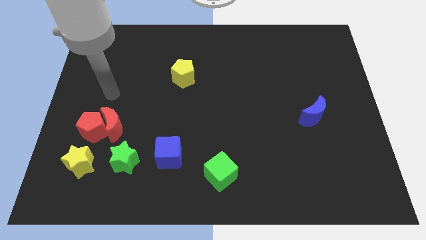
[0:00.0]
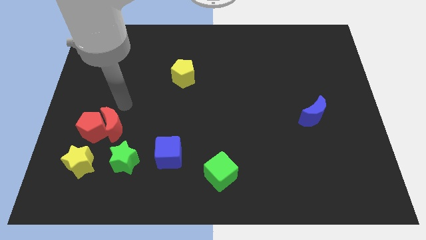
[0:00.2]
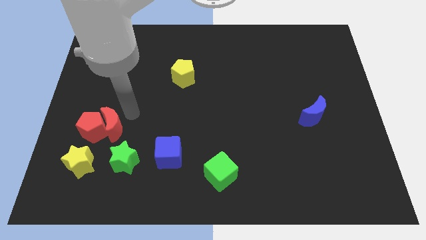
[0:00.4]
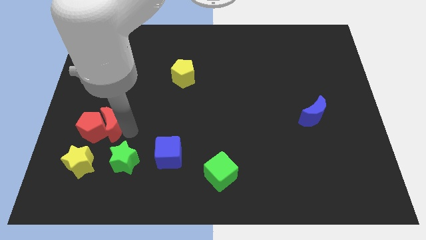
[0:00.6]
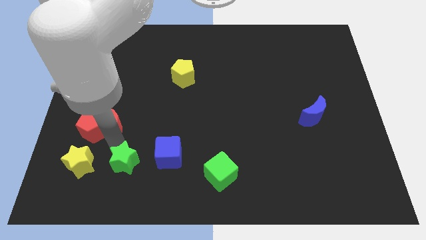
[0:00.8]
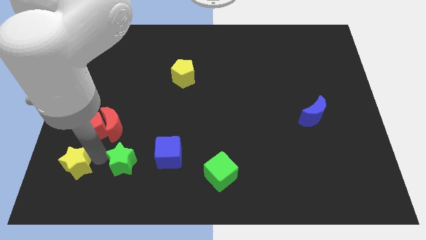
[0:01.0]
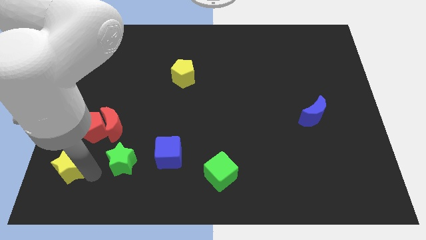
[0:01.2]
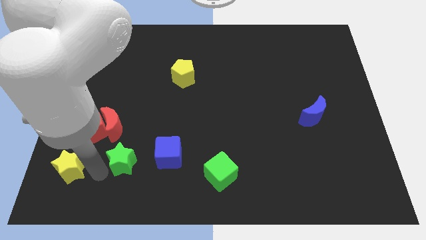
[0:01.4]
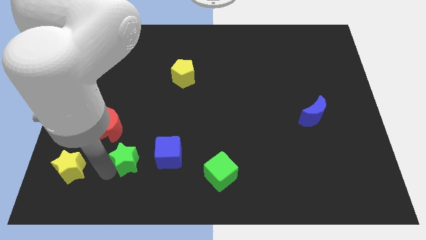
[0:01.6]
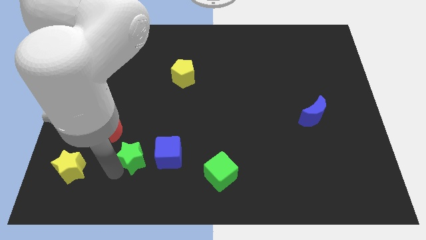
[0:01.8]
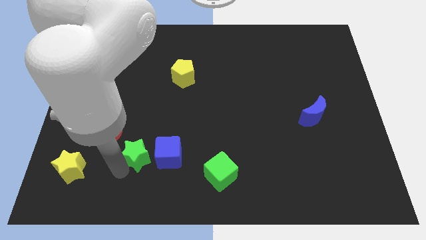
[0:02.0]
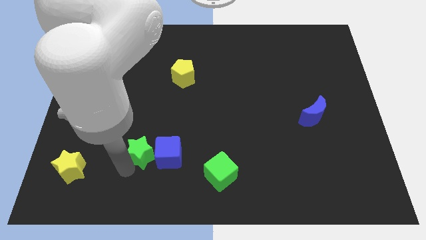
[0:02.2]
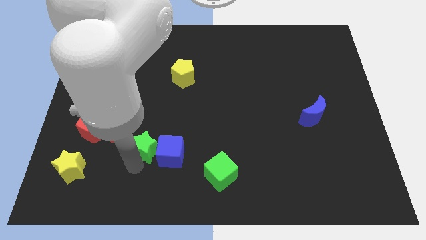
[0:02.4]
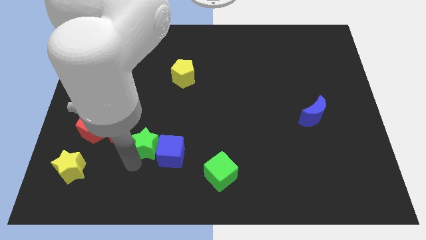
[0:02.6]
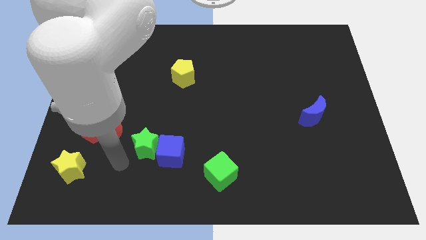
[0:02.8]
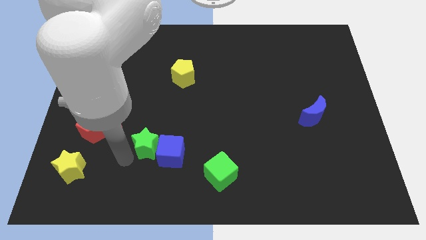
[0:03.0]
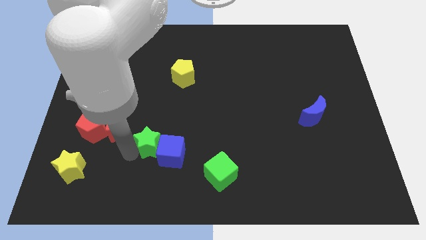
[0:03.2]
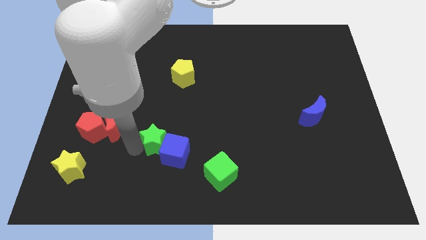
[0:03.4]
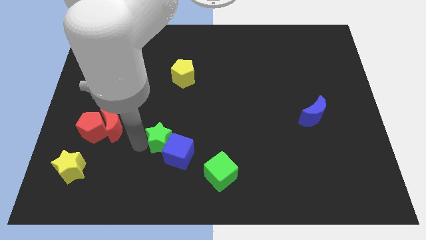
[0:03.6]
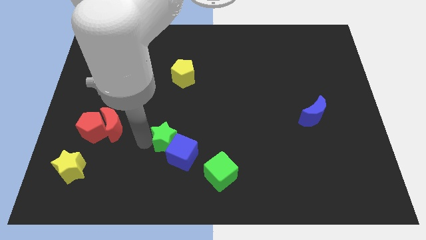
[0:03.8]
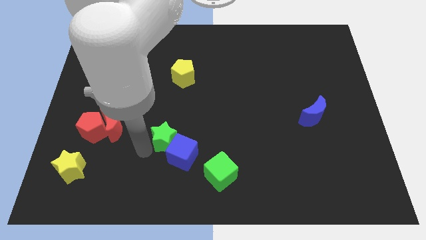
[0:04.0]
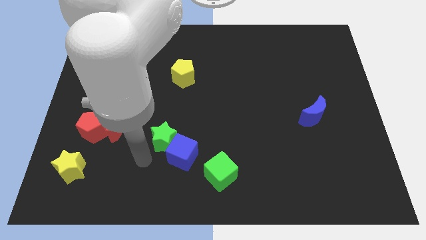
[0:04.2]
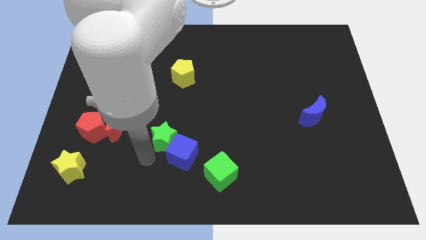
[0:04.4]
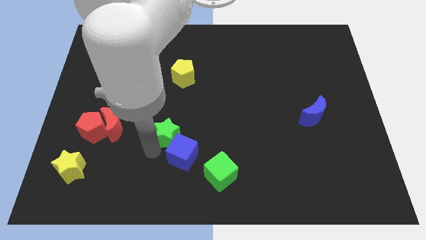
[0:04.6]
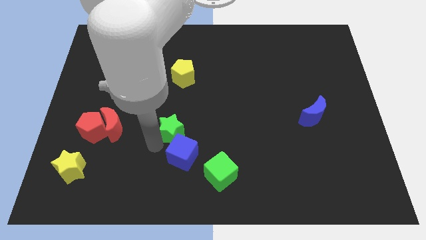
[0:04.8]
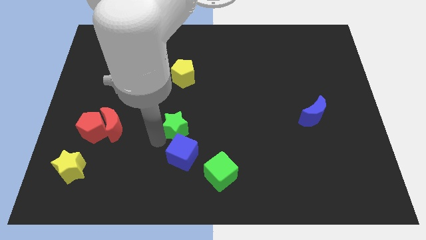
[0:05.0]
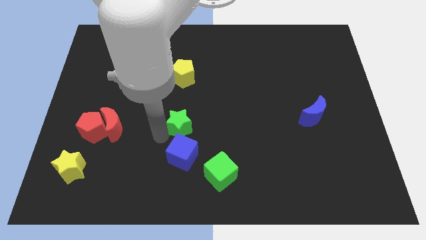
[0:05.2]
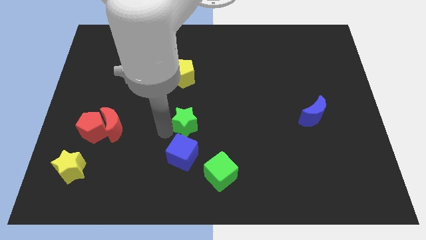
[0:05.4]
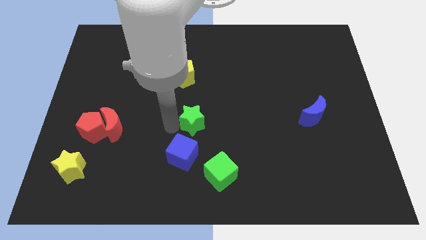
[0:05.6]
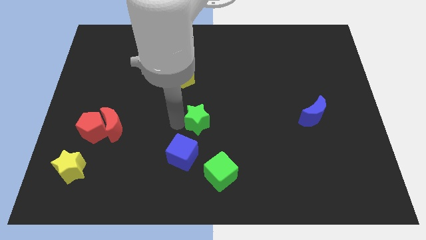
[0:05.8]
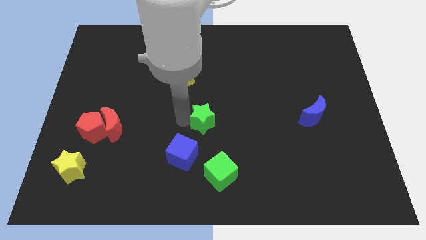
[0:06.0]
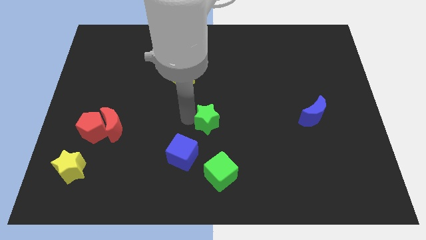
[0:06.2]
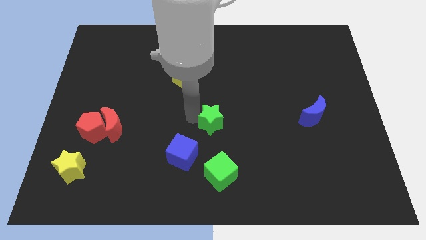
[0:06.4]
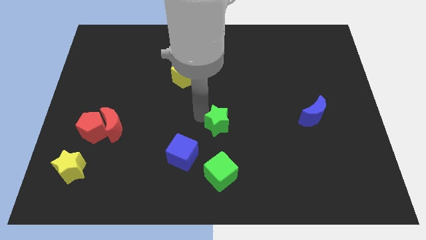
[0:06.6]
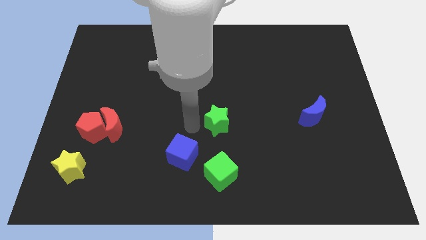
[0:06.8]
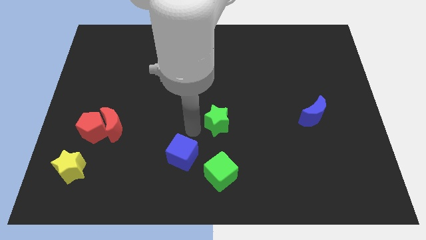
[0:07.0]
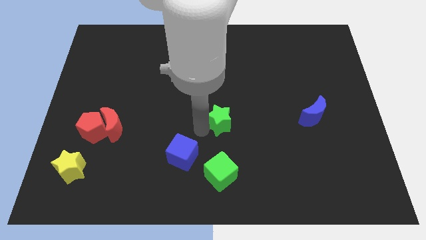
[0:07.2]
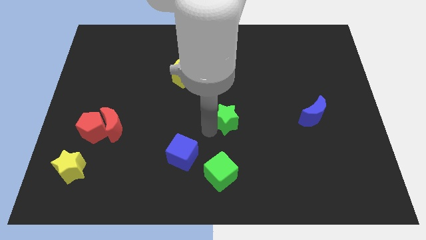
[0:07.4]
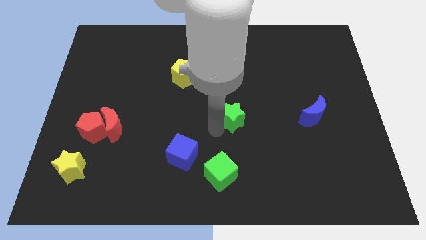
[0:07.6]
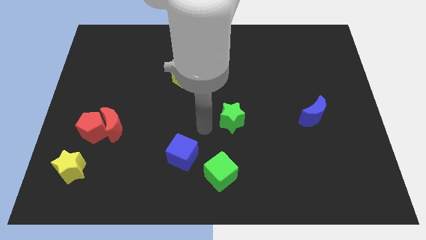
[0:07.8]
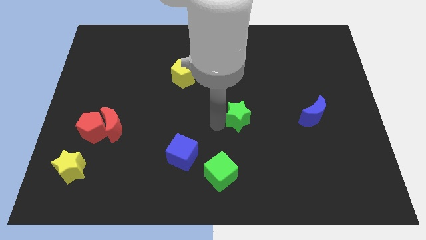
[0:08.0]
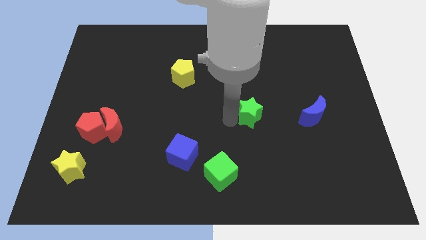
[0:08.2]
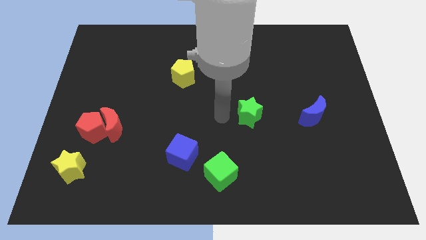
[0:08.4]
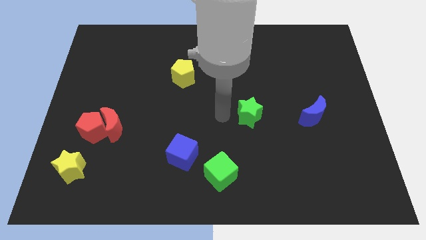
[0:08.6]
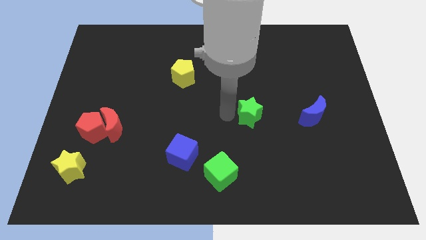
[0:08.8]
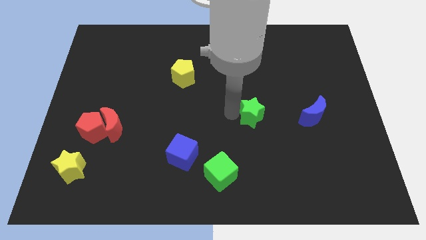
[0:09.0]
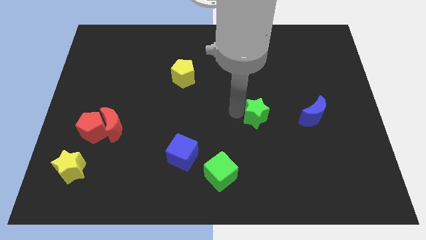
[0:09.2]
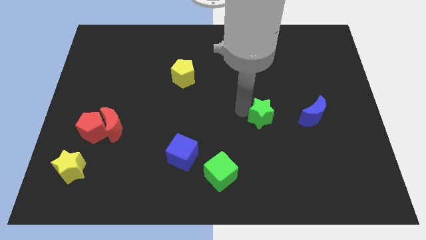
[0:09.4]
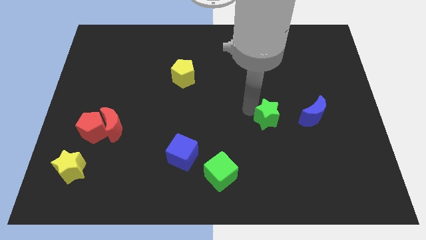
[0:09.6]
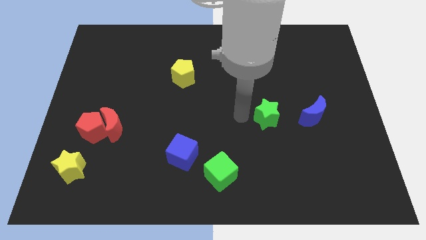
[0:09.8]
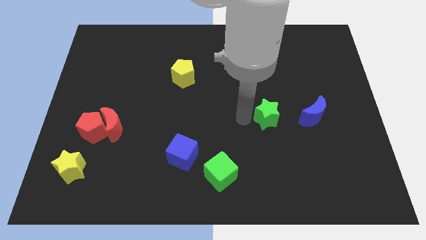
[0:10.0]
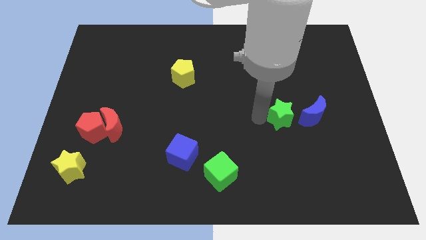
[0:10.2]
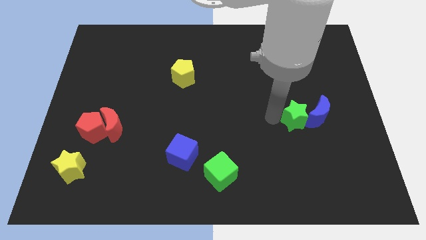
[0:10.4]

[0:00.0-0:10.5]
slide the green star towards the blue moon

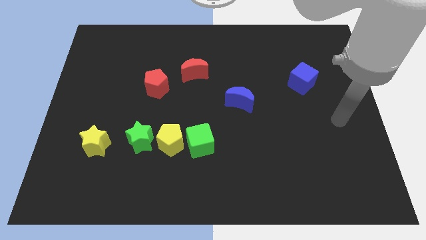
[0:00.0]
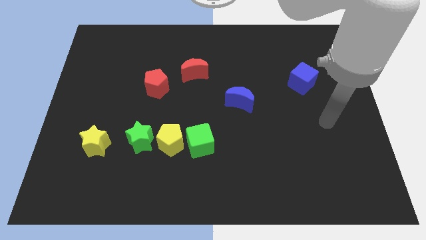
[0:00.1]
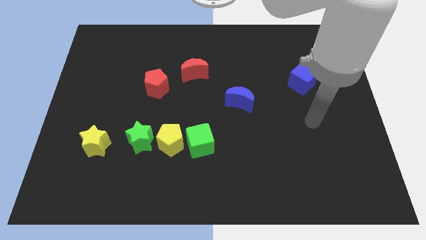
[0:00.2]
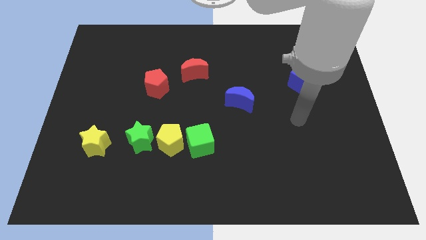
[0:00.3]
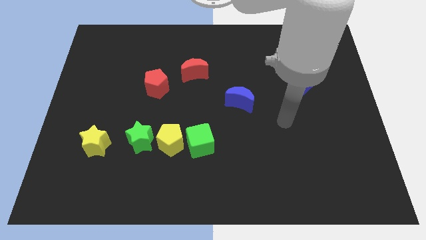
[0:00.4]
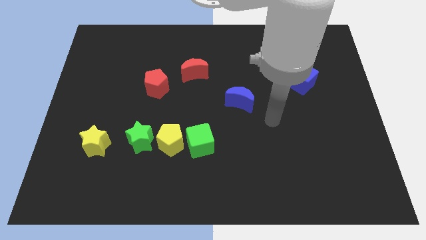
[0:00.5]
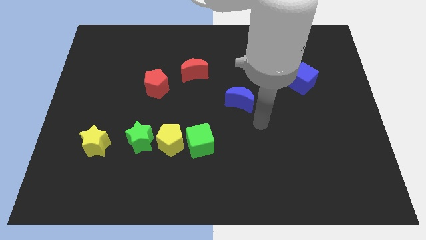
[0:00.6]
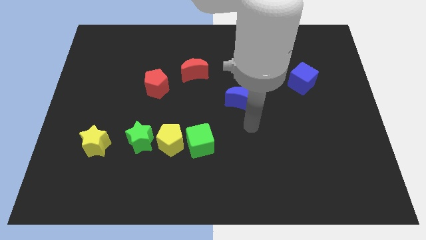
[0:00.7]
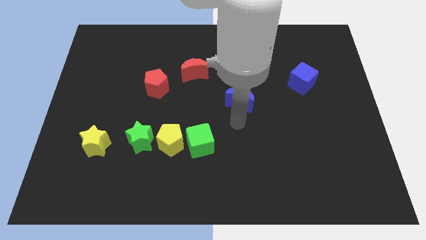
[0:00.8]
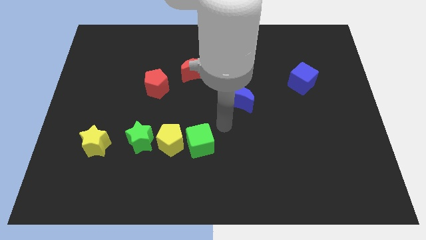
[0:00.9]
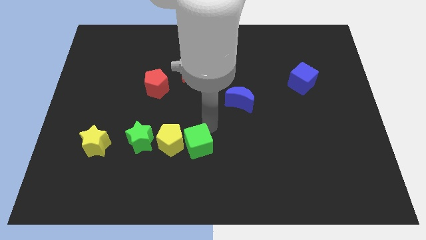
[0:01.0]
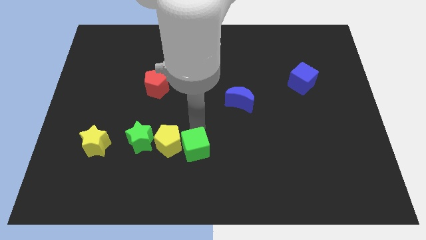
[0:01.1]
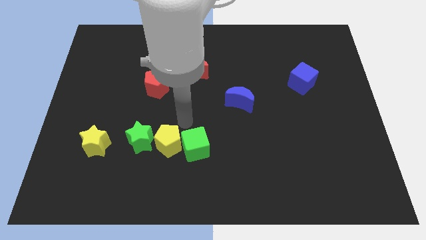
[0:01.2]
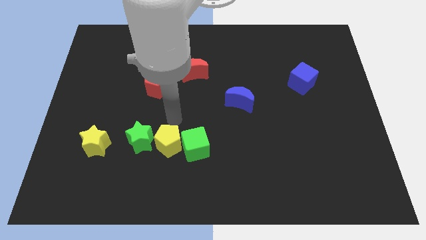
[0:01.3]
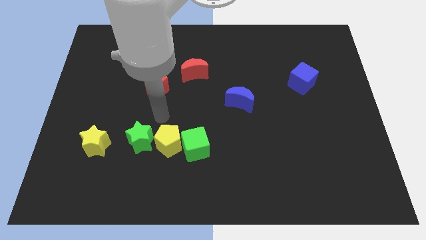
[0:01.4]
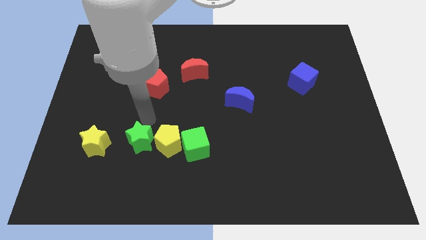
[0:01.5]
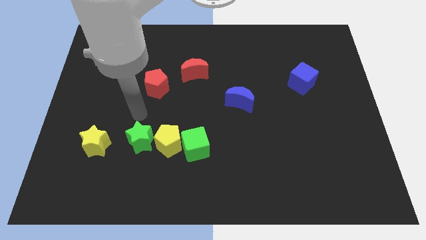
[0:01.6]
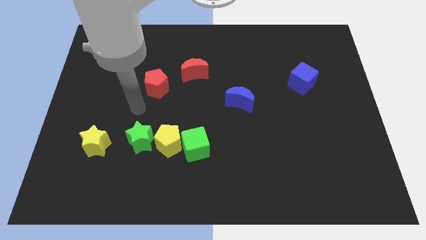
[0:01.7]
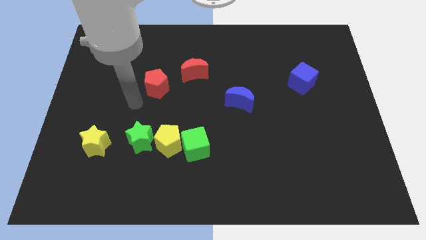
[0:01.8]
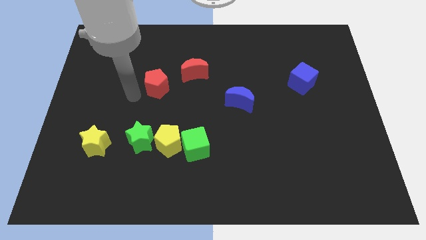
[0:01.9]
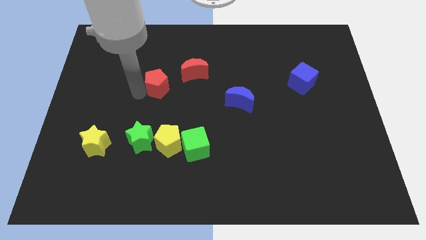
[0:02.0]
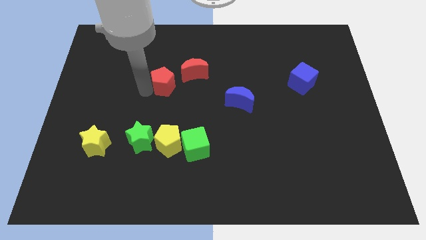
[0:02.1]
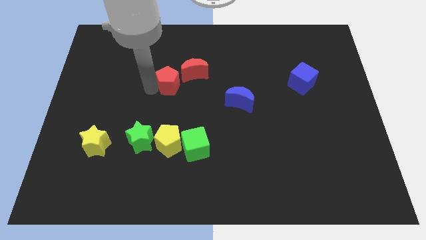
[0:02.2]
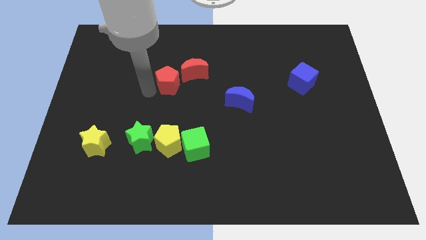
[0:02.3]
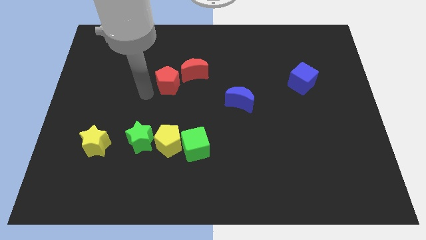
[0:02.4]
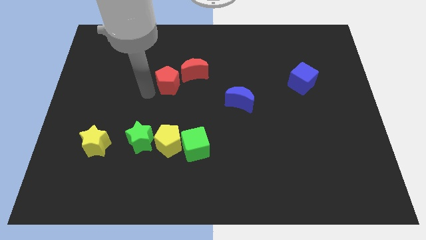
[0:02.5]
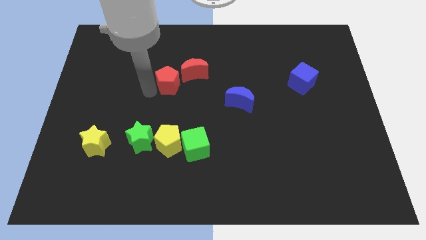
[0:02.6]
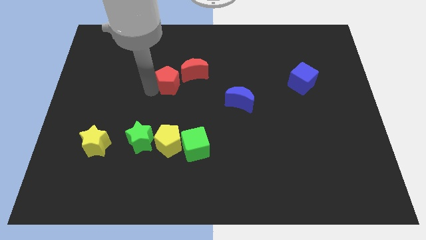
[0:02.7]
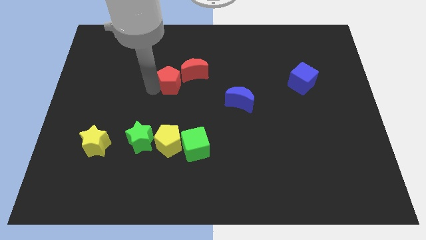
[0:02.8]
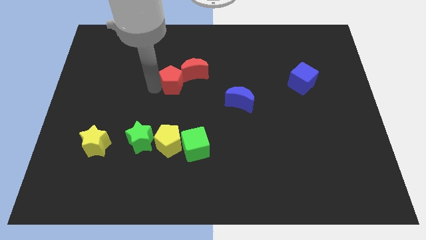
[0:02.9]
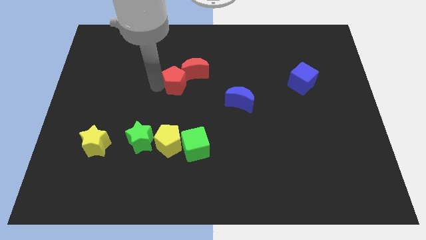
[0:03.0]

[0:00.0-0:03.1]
slide the red pentagon close to the red moon
